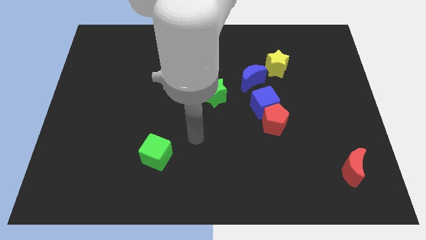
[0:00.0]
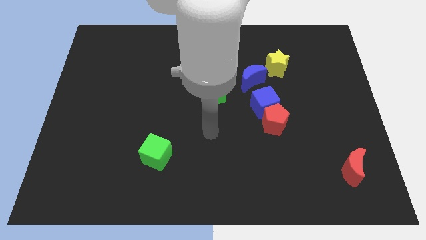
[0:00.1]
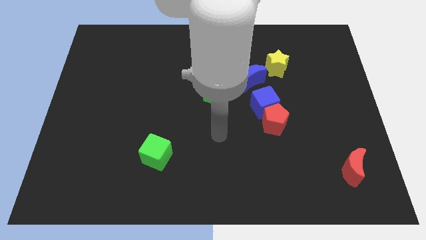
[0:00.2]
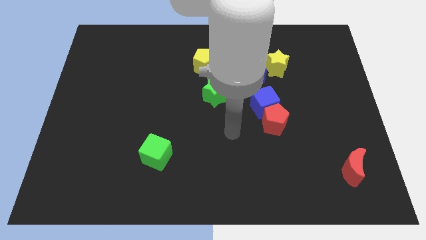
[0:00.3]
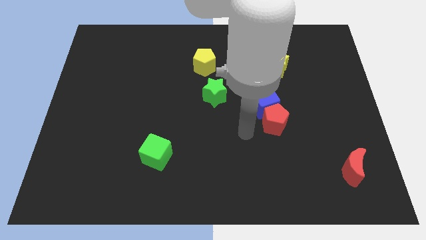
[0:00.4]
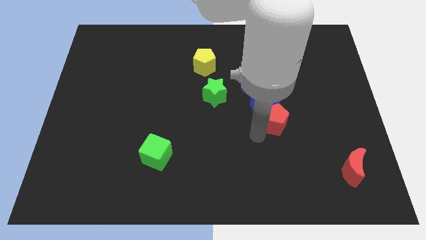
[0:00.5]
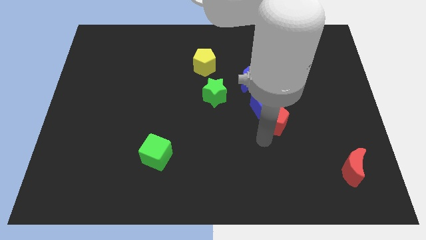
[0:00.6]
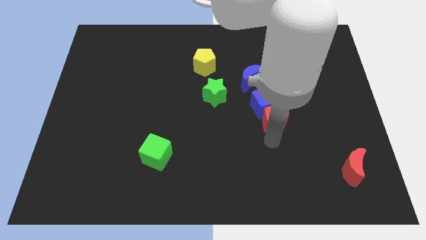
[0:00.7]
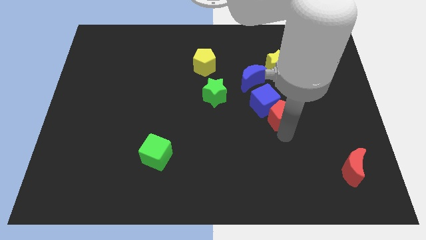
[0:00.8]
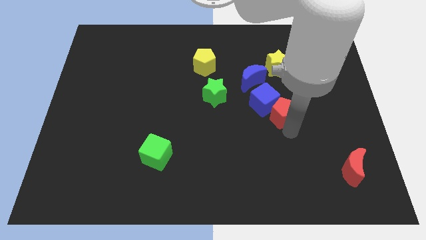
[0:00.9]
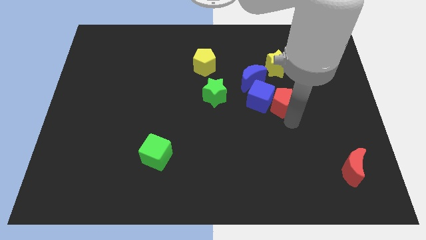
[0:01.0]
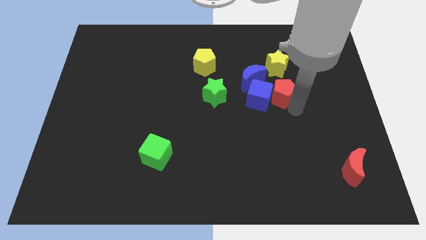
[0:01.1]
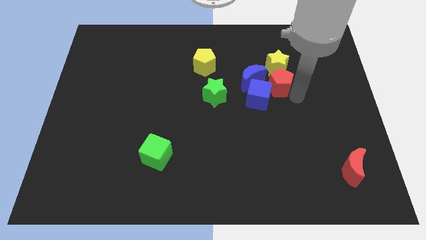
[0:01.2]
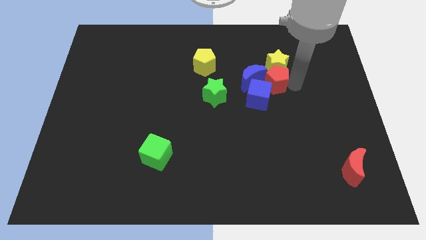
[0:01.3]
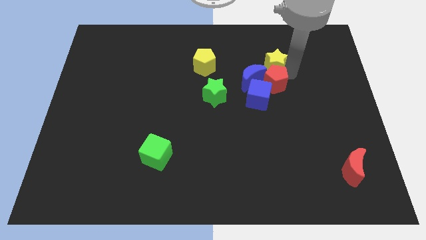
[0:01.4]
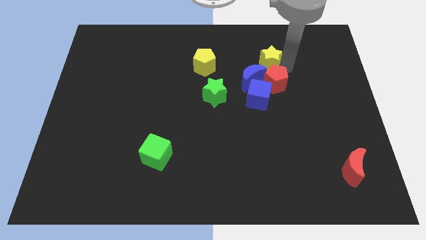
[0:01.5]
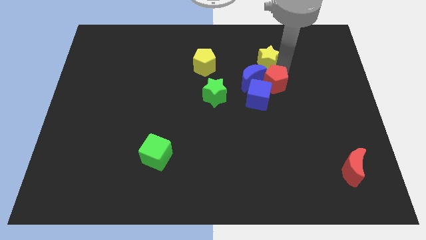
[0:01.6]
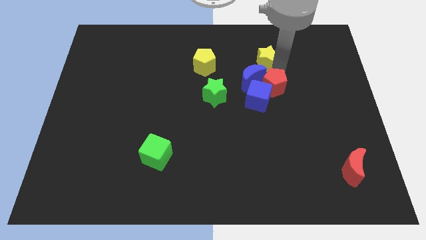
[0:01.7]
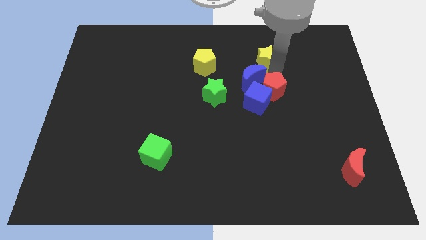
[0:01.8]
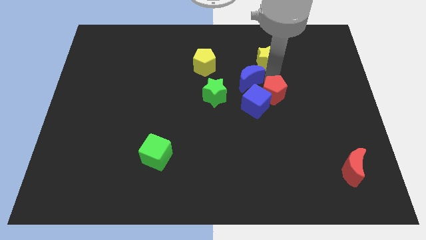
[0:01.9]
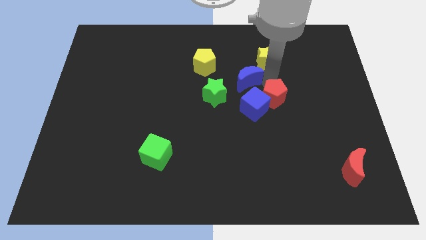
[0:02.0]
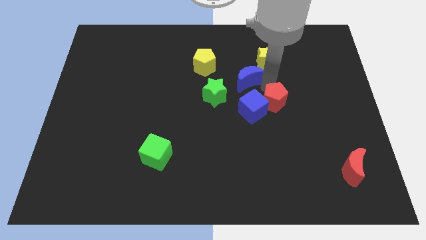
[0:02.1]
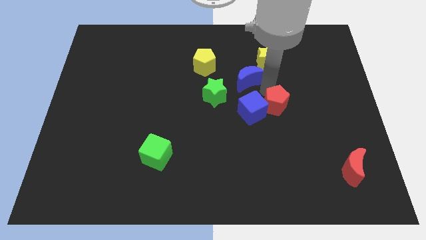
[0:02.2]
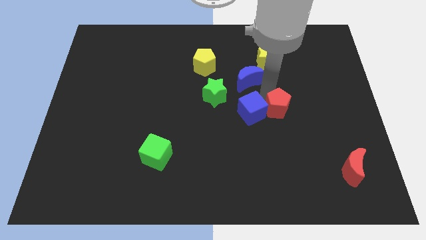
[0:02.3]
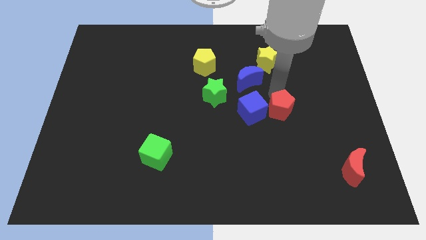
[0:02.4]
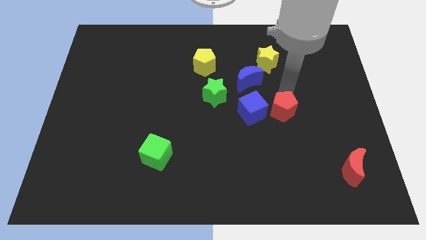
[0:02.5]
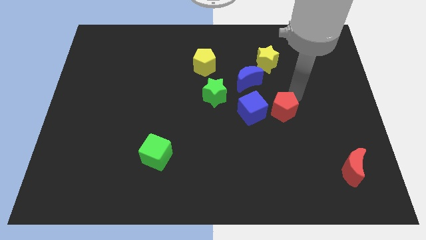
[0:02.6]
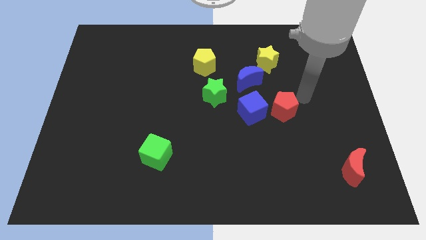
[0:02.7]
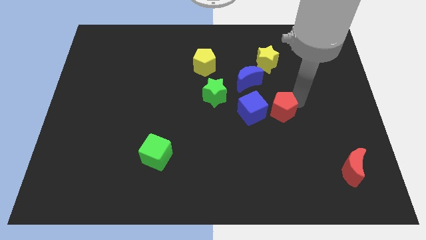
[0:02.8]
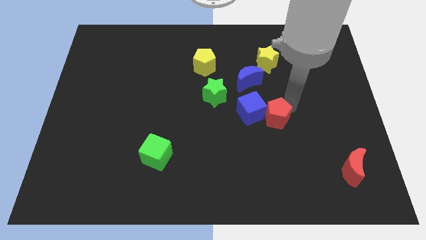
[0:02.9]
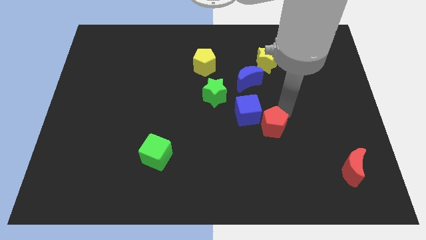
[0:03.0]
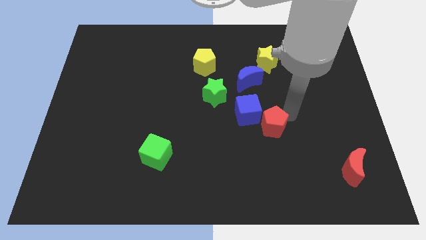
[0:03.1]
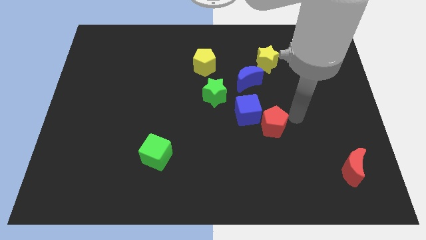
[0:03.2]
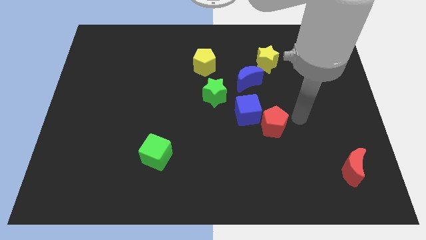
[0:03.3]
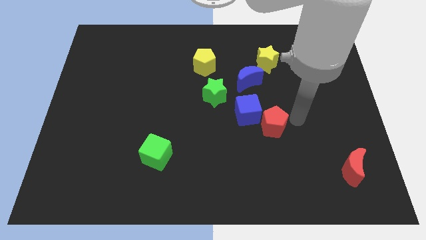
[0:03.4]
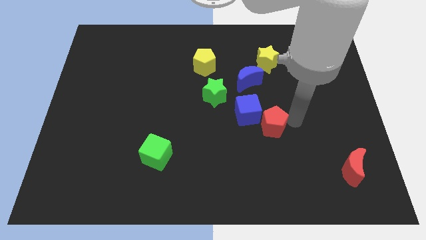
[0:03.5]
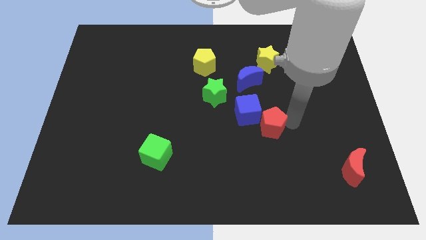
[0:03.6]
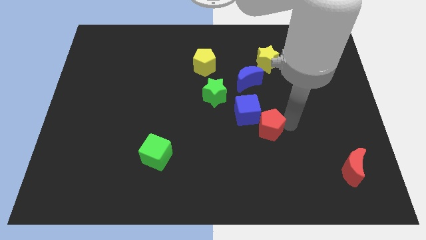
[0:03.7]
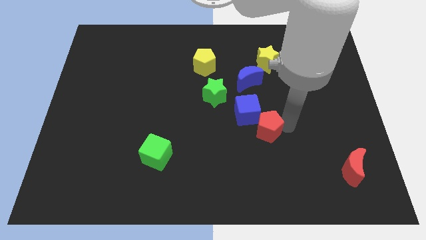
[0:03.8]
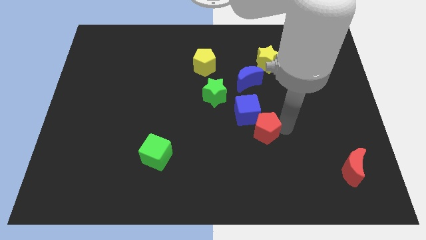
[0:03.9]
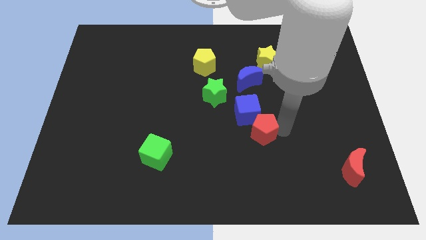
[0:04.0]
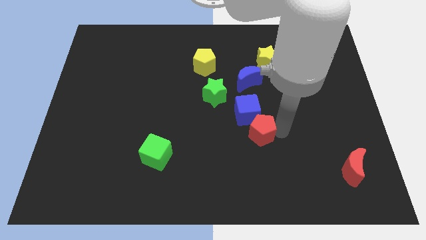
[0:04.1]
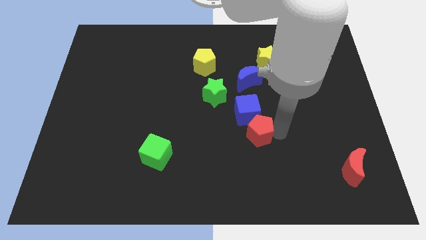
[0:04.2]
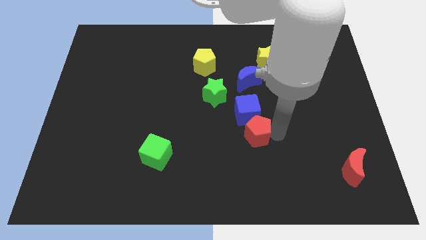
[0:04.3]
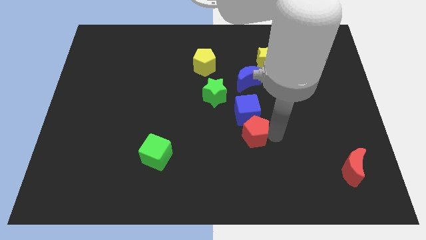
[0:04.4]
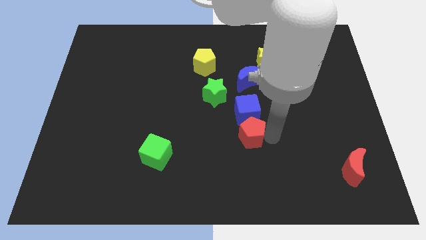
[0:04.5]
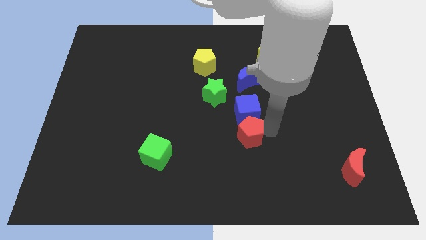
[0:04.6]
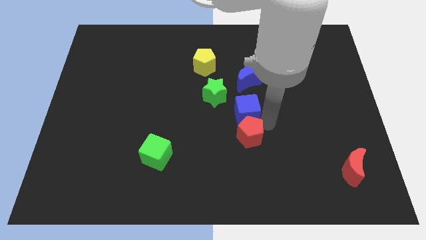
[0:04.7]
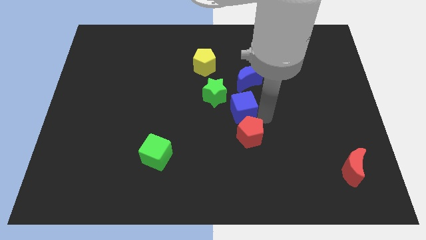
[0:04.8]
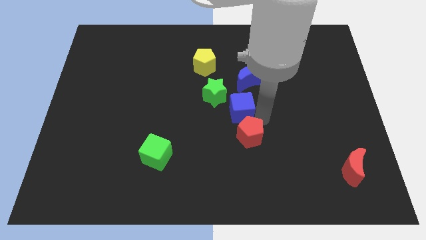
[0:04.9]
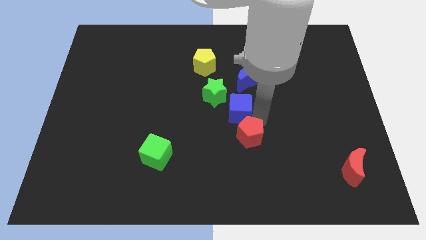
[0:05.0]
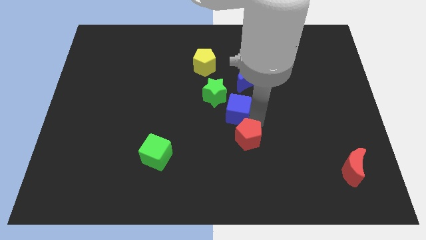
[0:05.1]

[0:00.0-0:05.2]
push the red pentagon down and left slightly

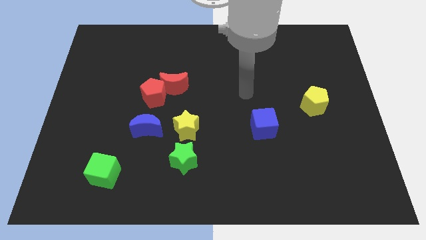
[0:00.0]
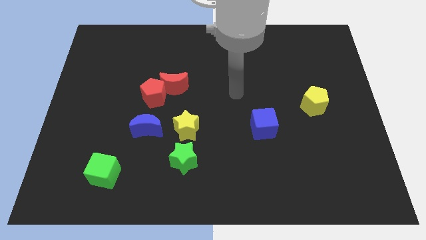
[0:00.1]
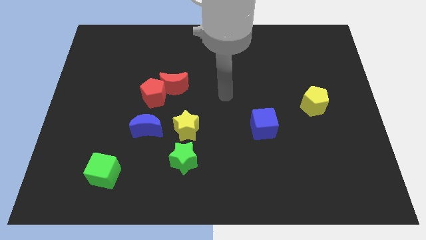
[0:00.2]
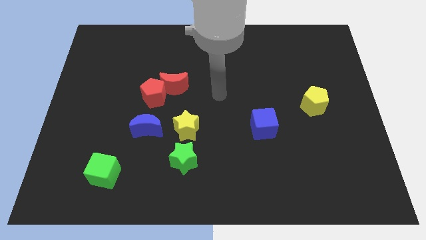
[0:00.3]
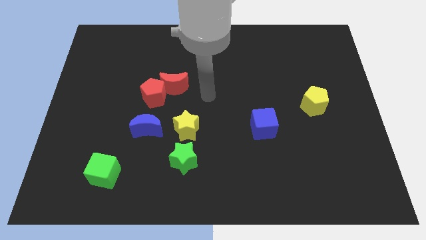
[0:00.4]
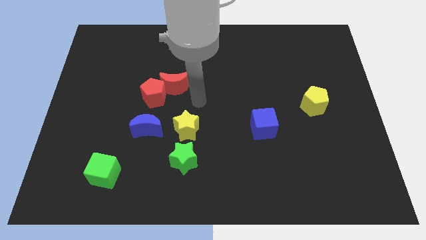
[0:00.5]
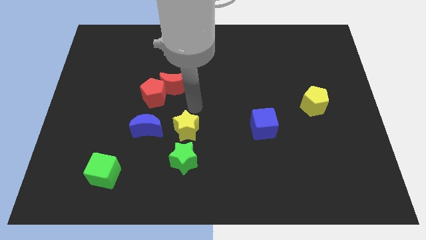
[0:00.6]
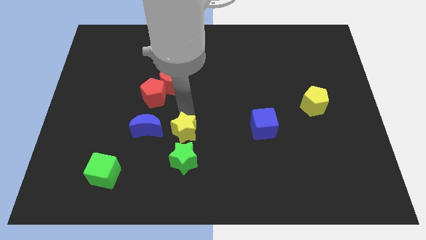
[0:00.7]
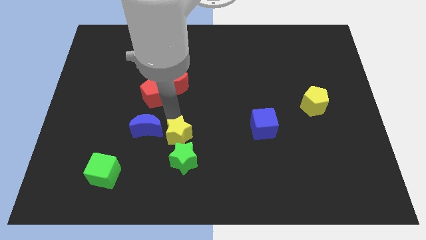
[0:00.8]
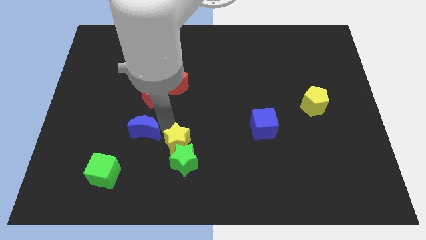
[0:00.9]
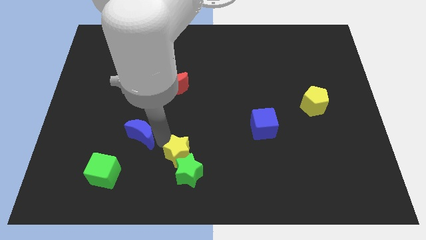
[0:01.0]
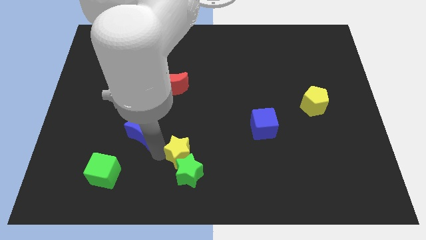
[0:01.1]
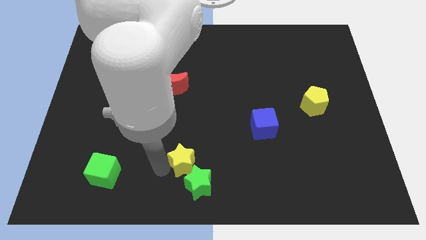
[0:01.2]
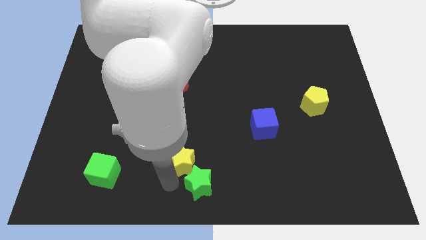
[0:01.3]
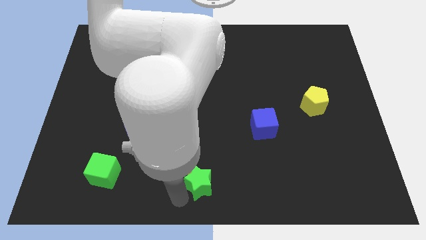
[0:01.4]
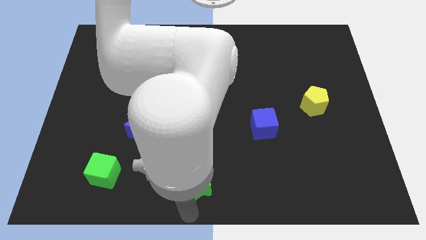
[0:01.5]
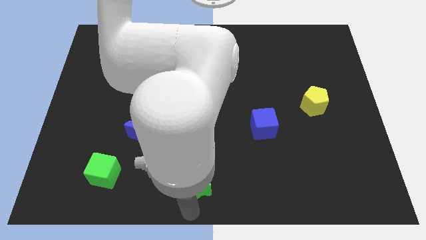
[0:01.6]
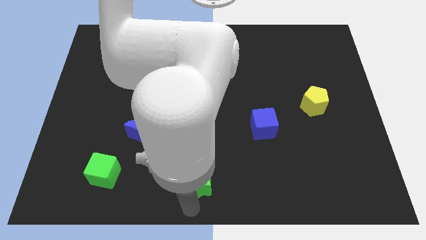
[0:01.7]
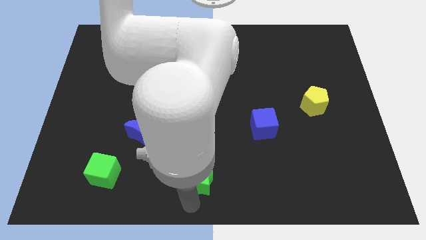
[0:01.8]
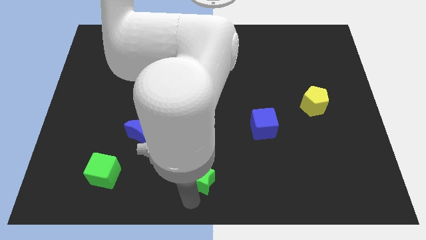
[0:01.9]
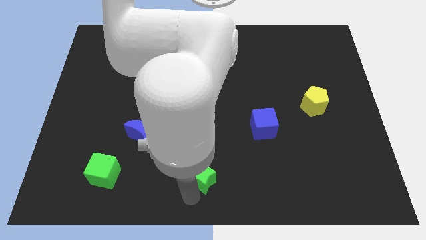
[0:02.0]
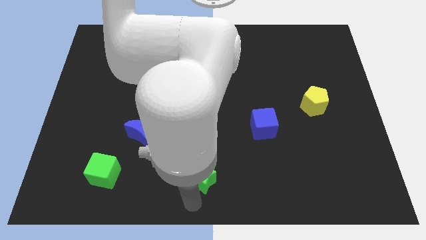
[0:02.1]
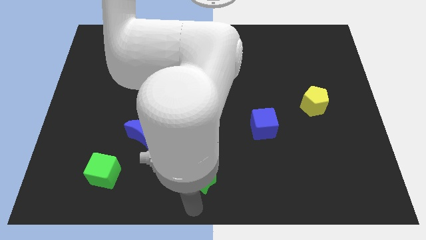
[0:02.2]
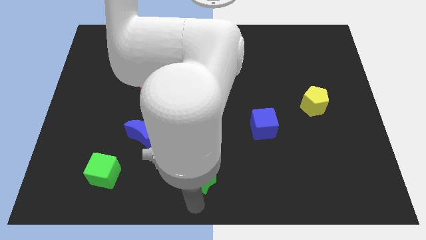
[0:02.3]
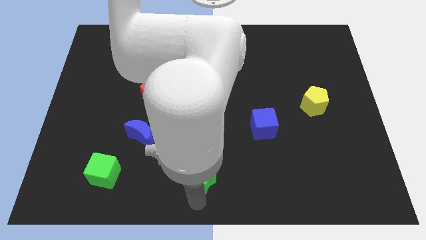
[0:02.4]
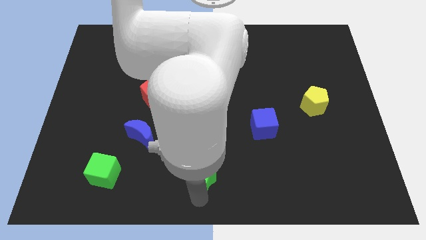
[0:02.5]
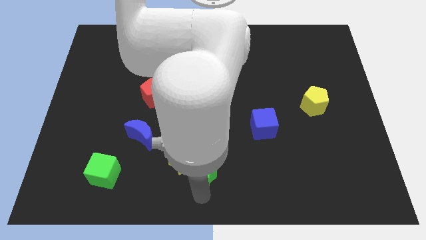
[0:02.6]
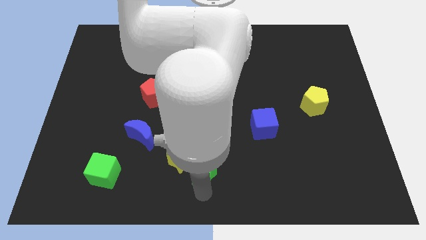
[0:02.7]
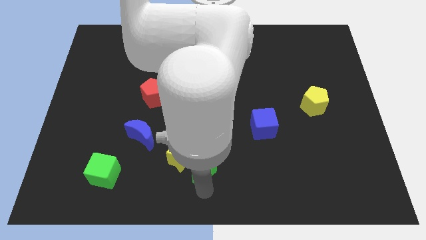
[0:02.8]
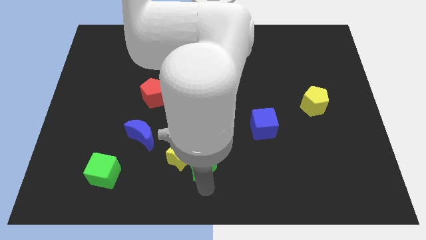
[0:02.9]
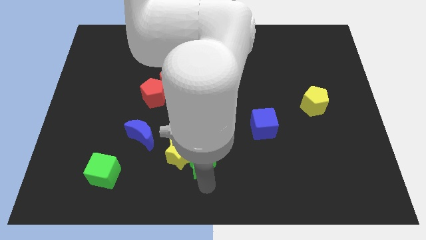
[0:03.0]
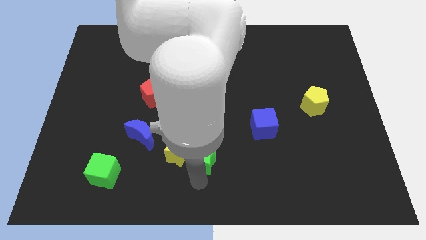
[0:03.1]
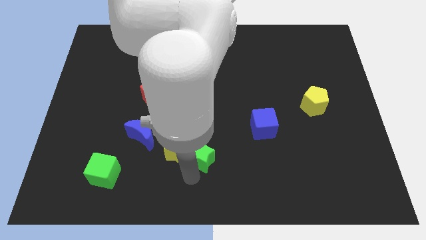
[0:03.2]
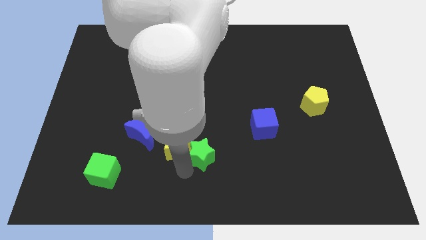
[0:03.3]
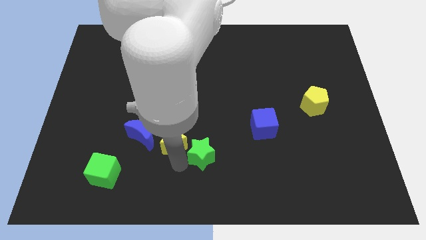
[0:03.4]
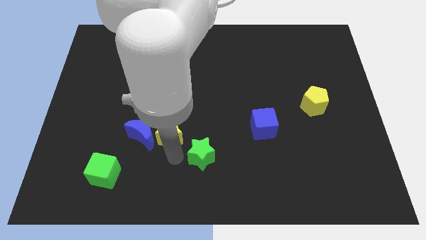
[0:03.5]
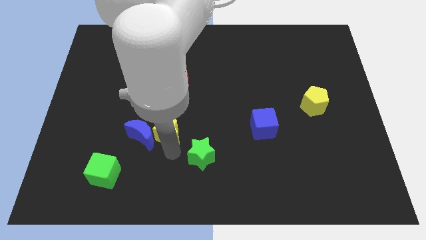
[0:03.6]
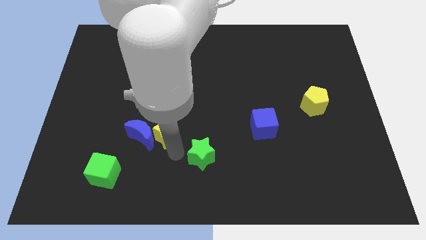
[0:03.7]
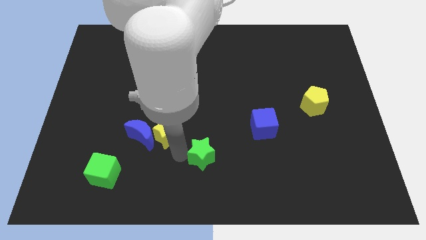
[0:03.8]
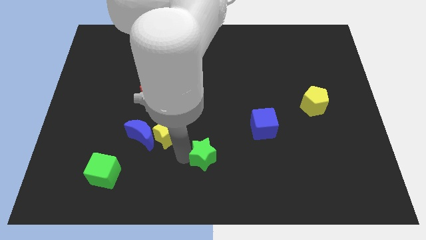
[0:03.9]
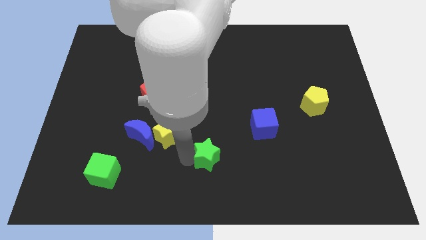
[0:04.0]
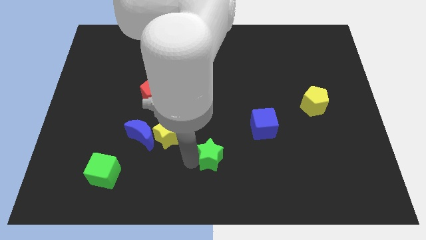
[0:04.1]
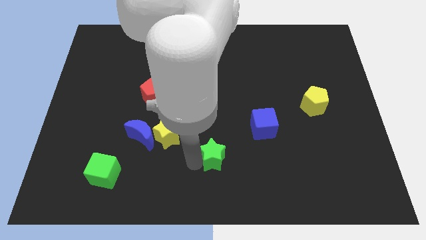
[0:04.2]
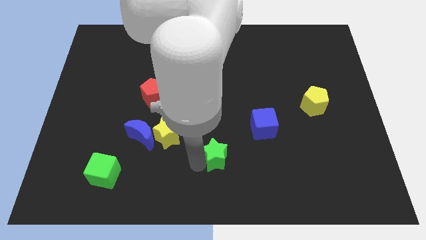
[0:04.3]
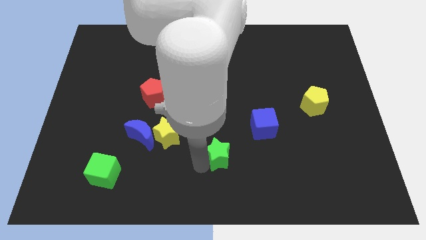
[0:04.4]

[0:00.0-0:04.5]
move the green star right slightly
